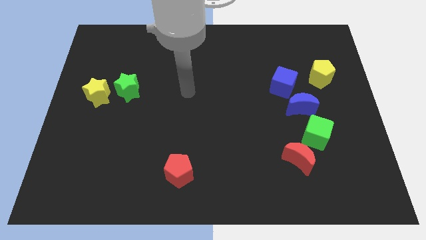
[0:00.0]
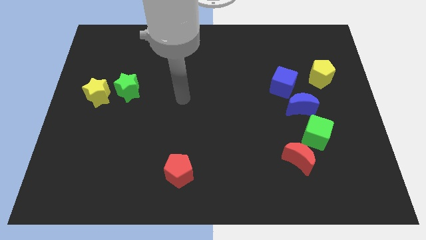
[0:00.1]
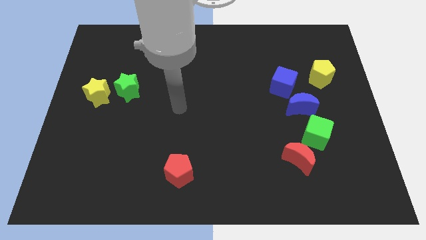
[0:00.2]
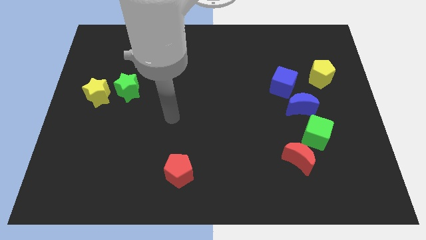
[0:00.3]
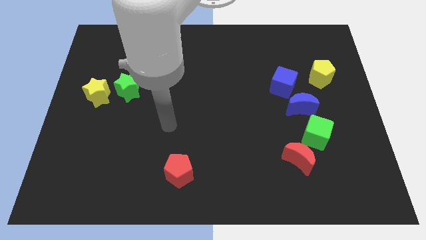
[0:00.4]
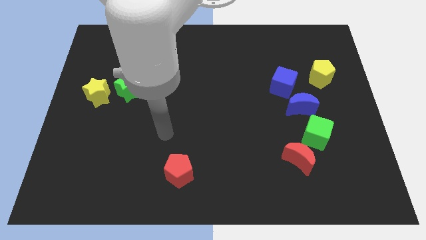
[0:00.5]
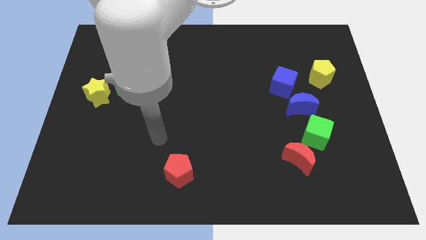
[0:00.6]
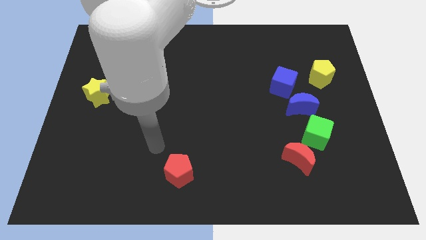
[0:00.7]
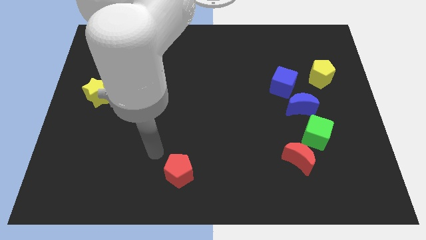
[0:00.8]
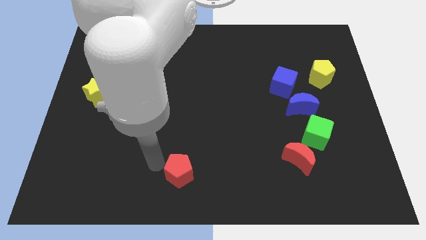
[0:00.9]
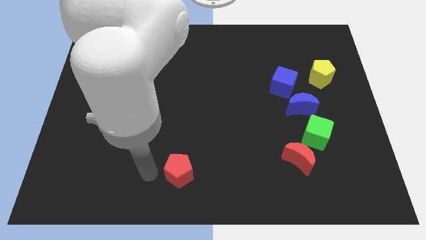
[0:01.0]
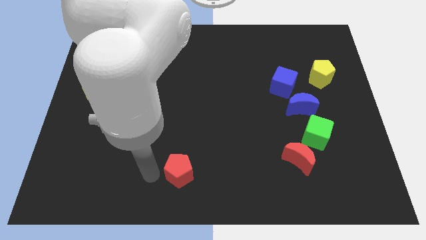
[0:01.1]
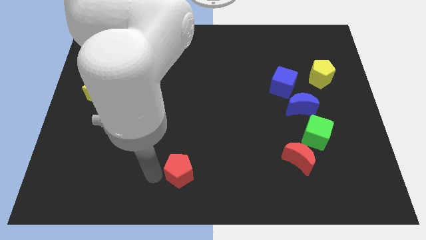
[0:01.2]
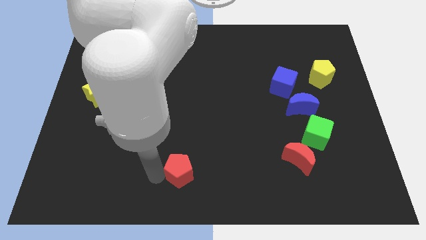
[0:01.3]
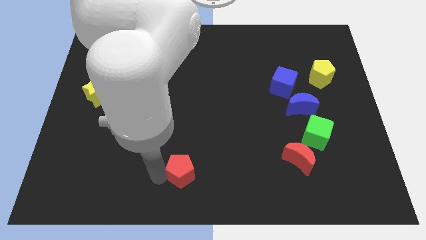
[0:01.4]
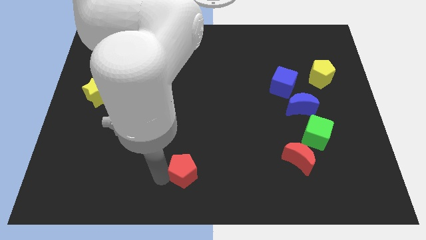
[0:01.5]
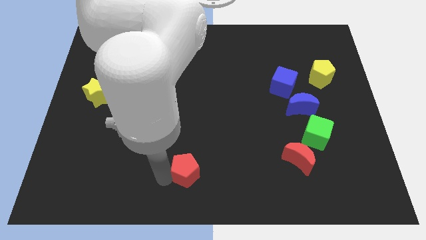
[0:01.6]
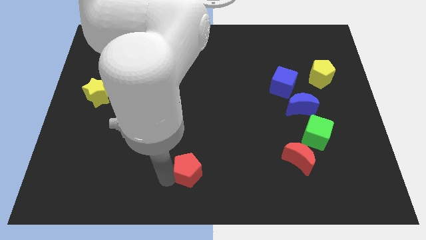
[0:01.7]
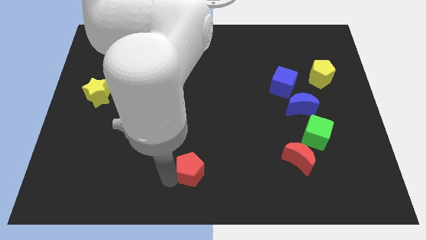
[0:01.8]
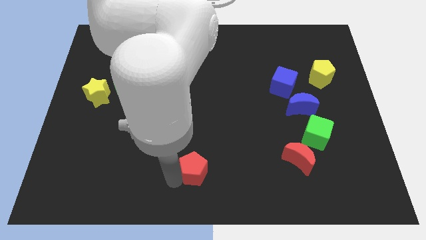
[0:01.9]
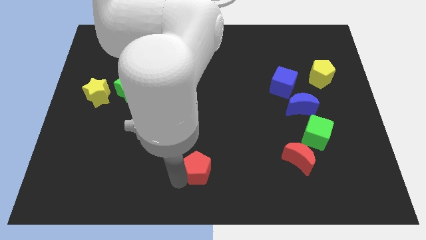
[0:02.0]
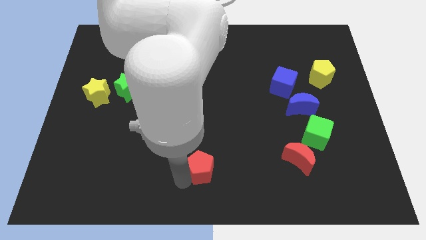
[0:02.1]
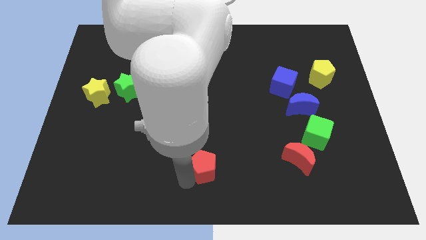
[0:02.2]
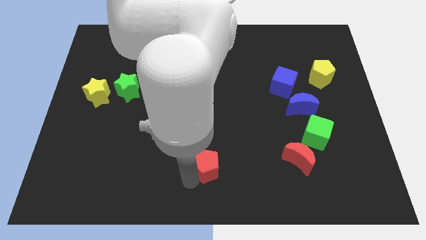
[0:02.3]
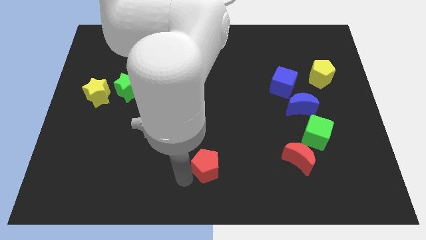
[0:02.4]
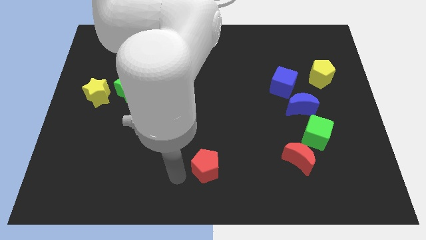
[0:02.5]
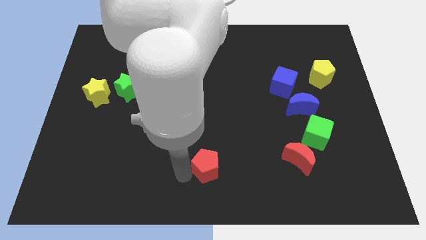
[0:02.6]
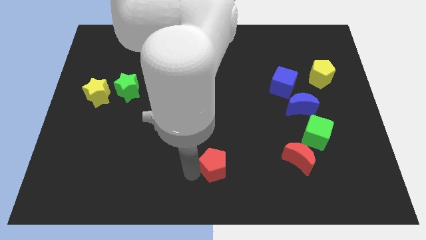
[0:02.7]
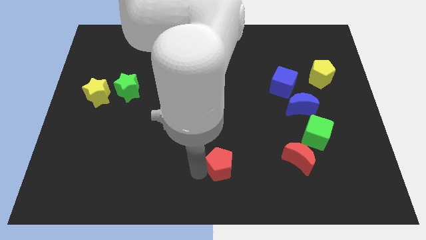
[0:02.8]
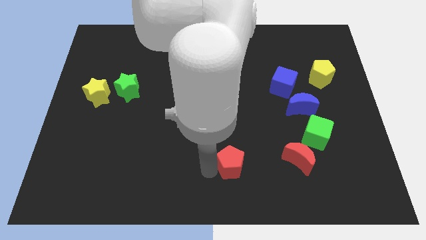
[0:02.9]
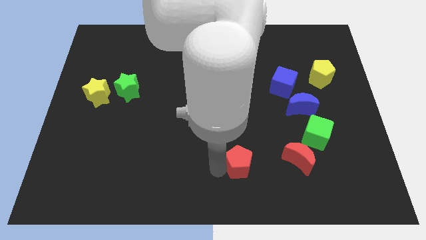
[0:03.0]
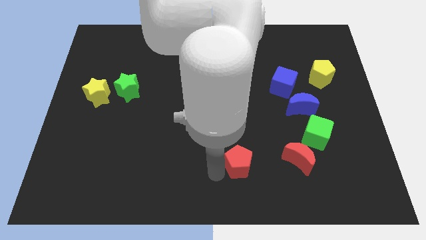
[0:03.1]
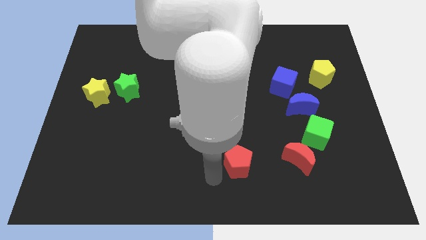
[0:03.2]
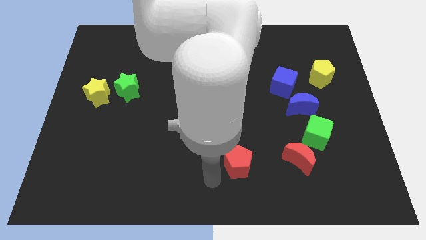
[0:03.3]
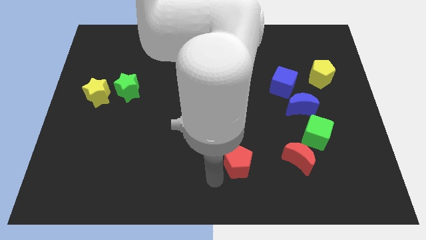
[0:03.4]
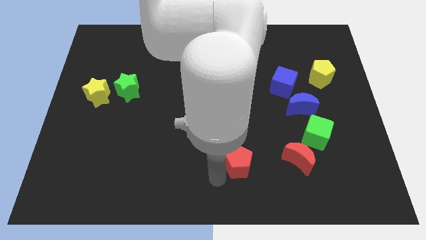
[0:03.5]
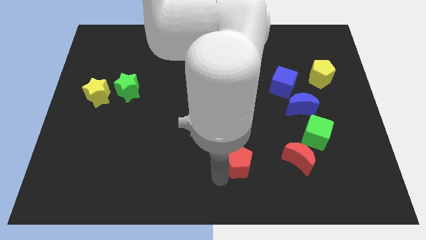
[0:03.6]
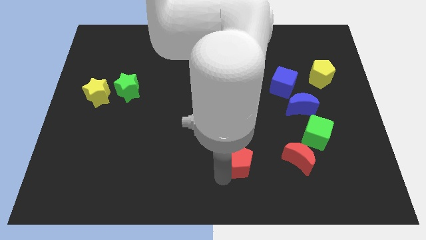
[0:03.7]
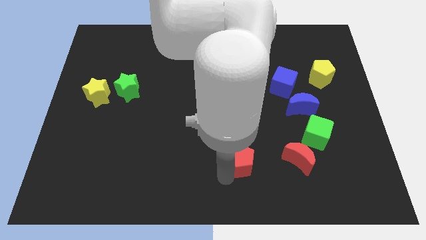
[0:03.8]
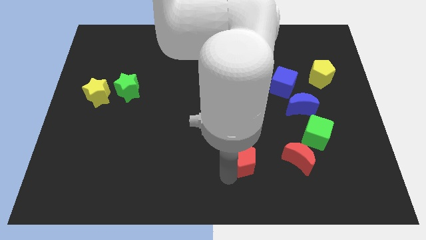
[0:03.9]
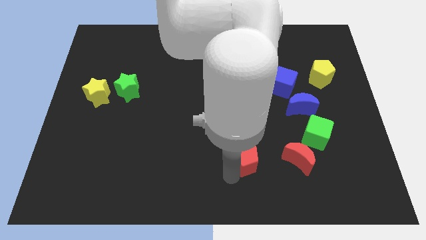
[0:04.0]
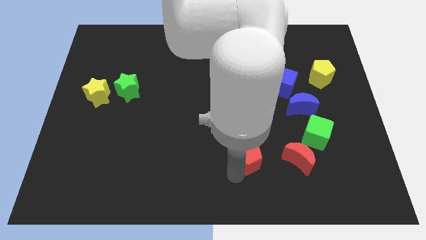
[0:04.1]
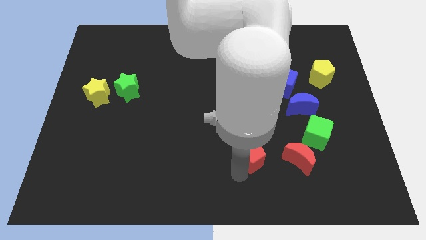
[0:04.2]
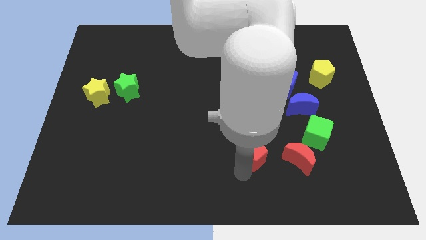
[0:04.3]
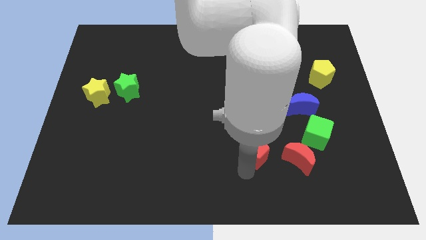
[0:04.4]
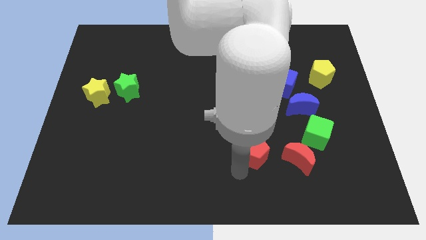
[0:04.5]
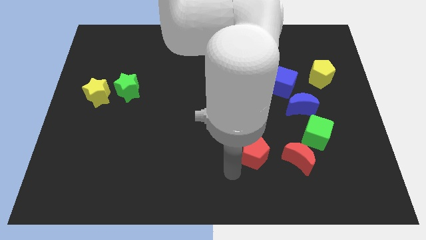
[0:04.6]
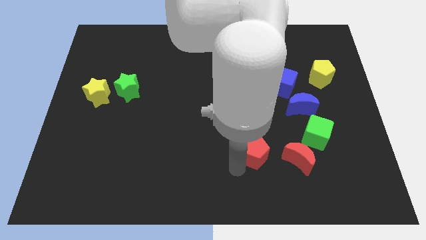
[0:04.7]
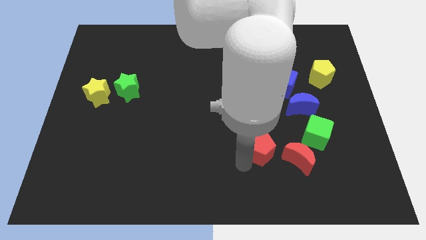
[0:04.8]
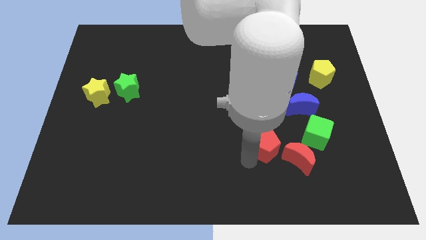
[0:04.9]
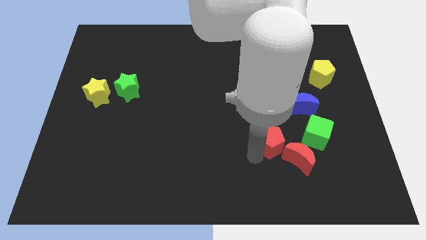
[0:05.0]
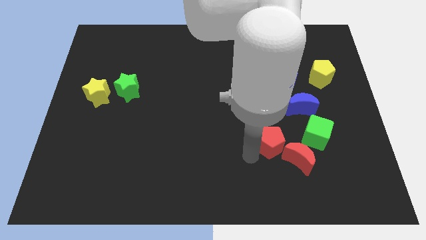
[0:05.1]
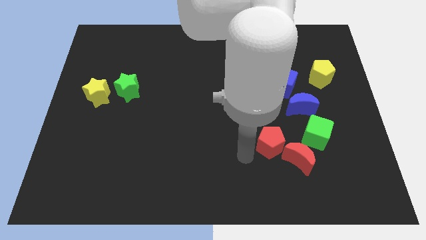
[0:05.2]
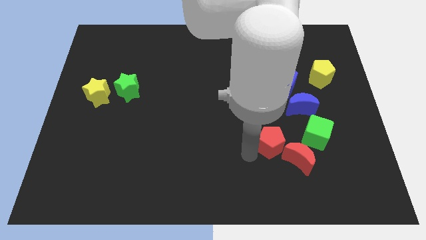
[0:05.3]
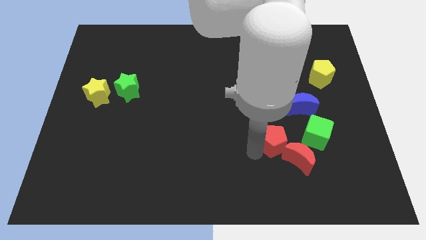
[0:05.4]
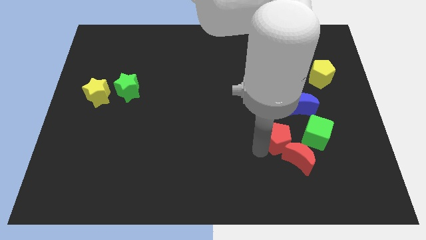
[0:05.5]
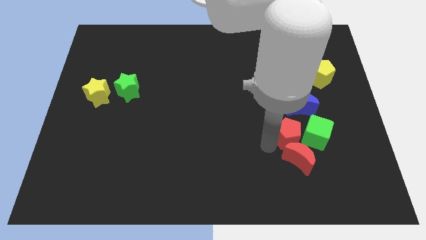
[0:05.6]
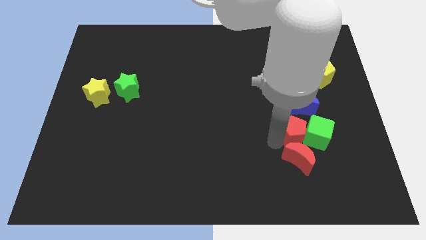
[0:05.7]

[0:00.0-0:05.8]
put the red pentagon next to the green cube

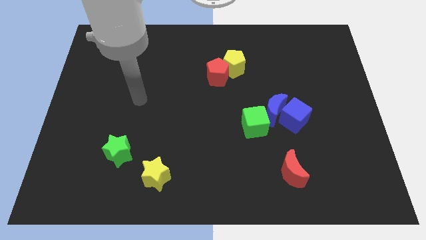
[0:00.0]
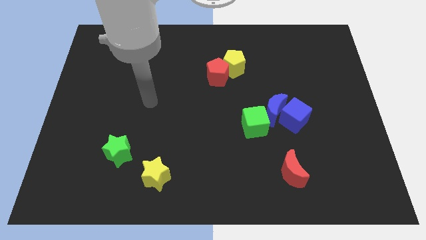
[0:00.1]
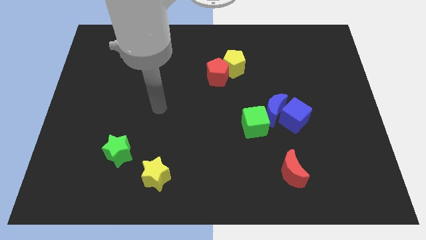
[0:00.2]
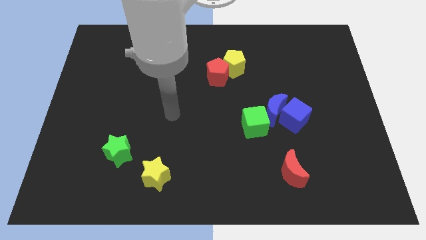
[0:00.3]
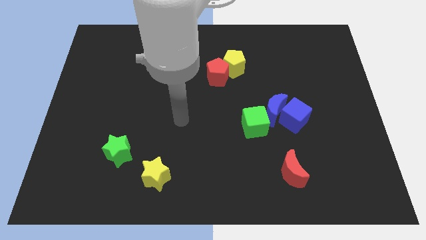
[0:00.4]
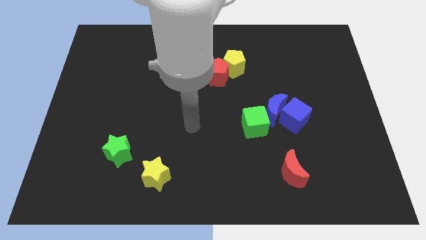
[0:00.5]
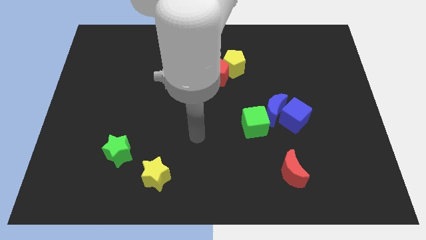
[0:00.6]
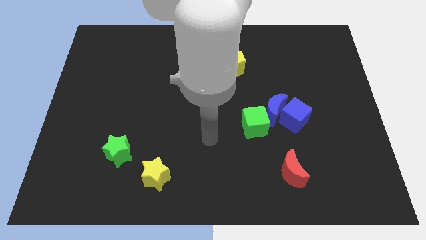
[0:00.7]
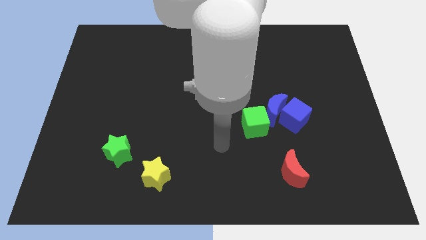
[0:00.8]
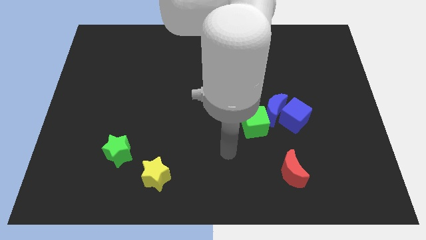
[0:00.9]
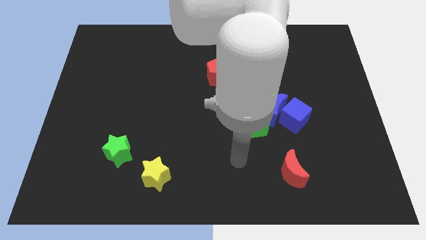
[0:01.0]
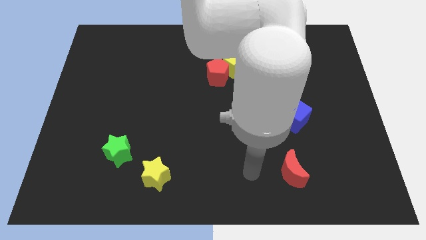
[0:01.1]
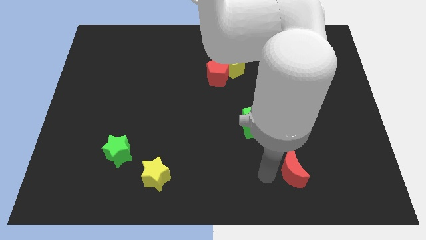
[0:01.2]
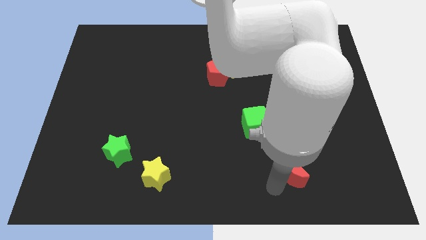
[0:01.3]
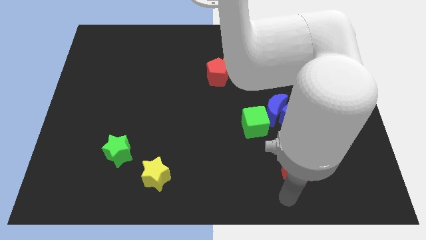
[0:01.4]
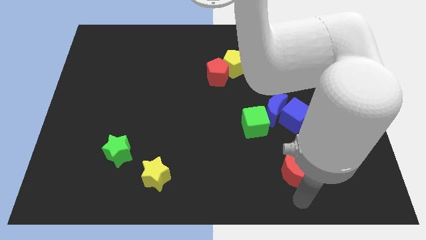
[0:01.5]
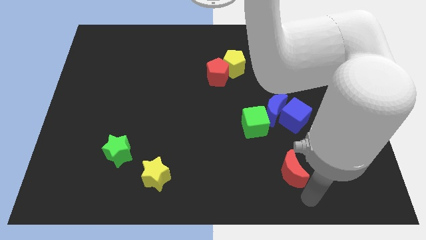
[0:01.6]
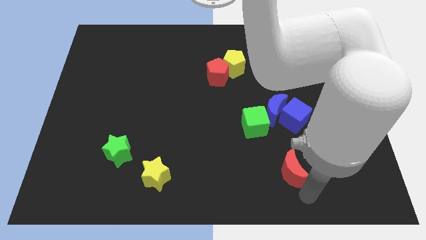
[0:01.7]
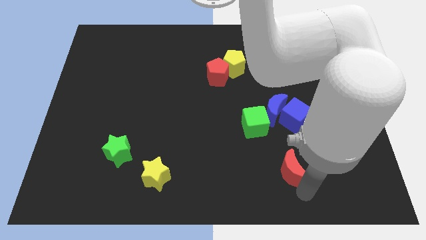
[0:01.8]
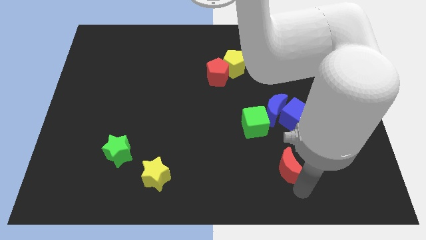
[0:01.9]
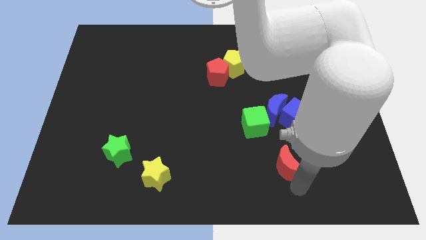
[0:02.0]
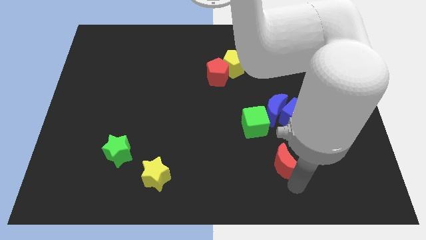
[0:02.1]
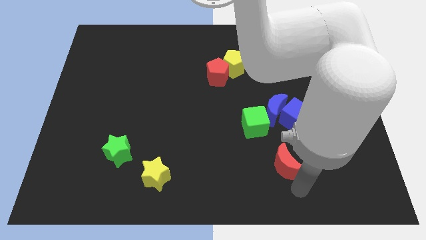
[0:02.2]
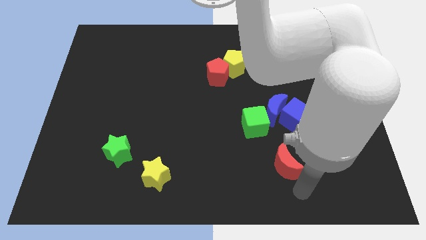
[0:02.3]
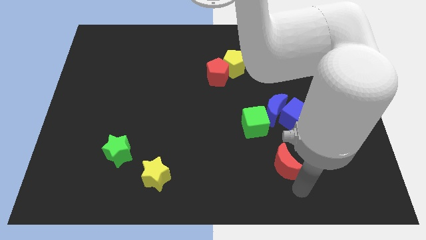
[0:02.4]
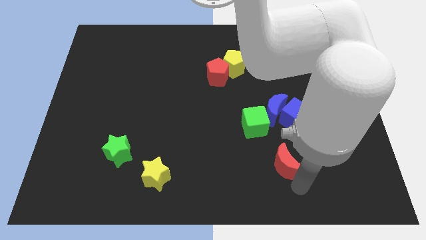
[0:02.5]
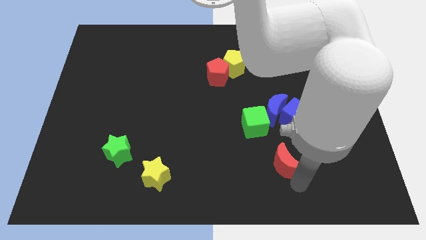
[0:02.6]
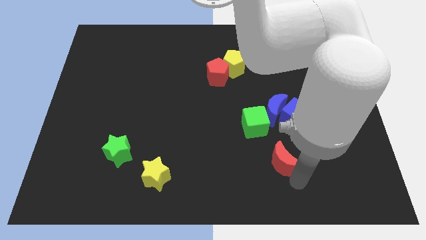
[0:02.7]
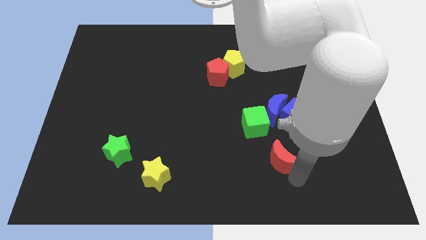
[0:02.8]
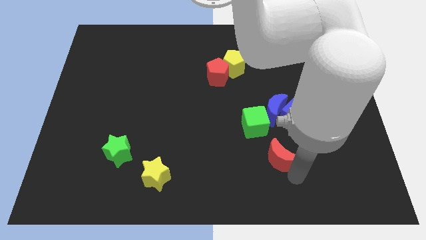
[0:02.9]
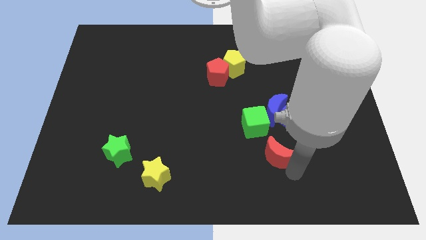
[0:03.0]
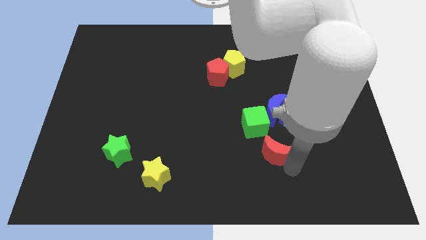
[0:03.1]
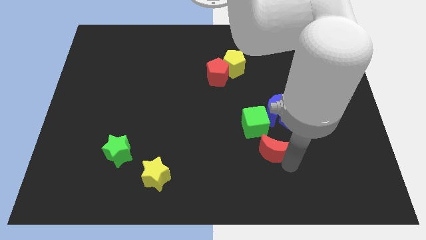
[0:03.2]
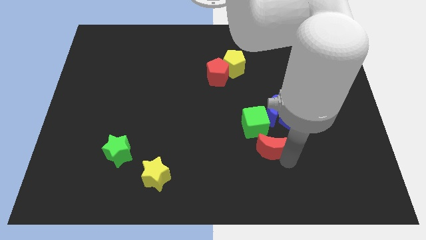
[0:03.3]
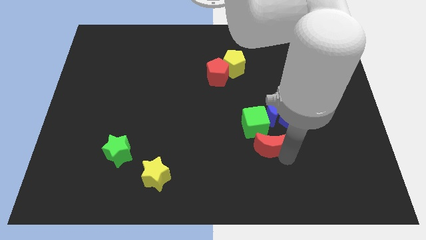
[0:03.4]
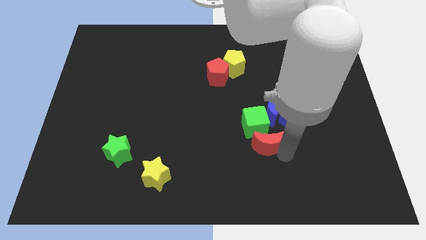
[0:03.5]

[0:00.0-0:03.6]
put the red moon towards the green cube
